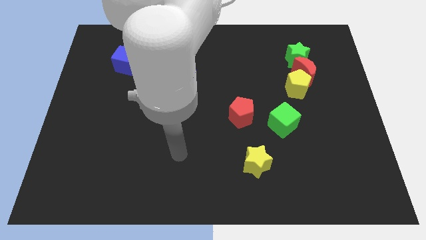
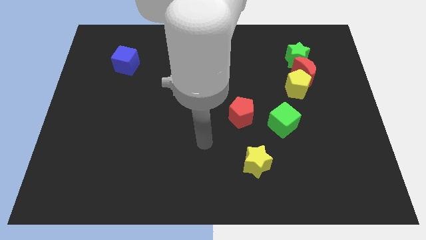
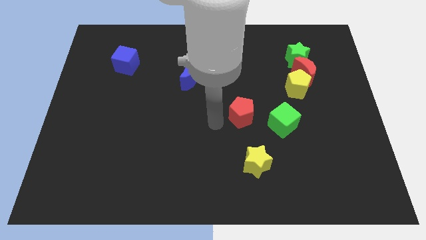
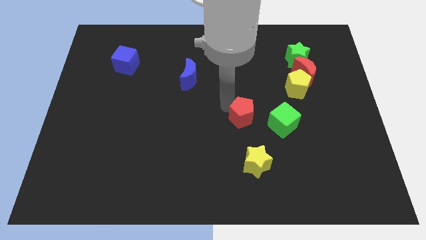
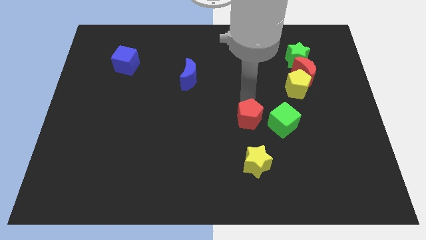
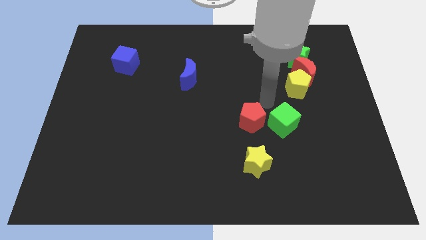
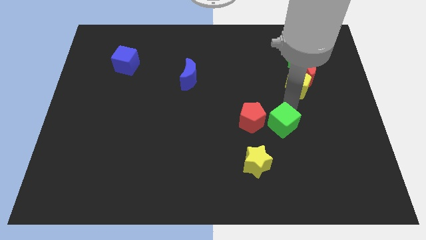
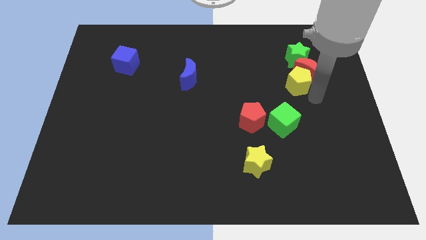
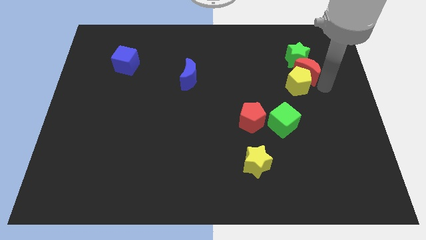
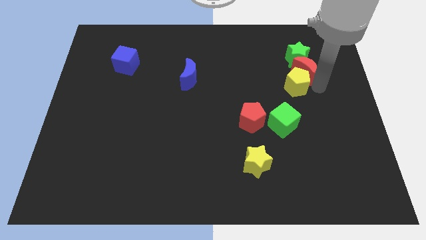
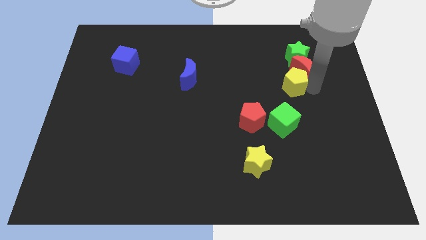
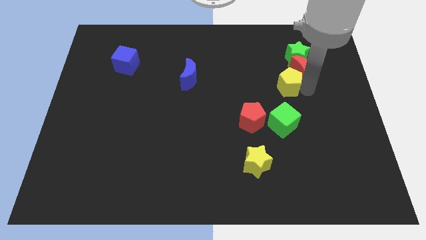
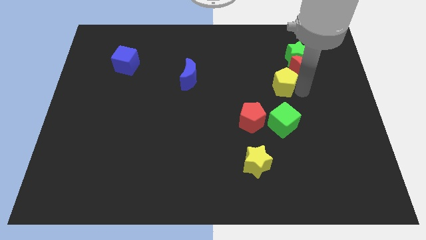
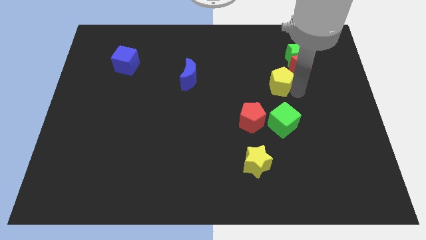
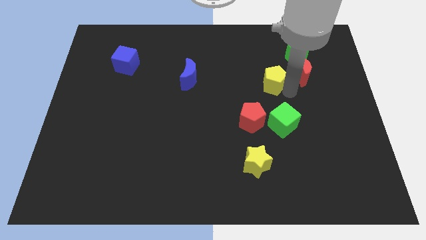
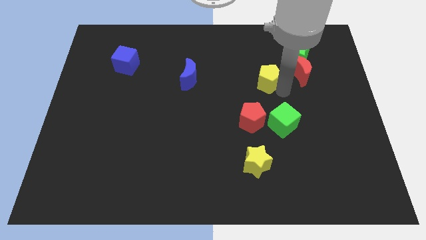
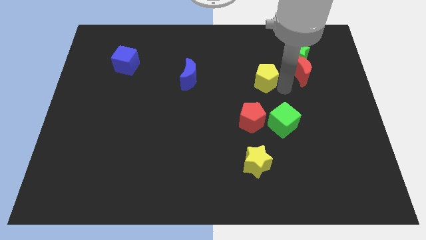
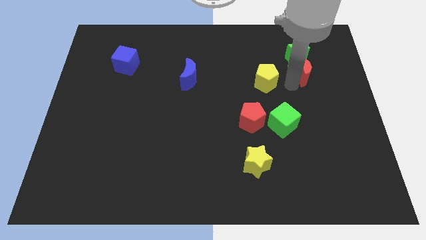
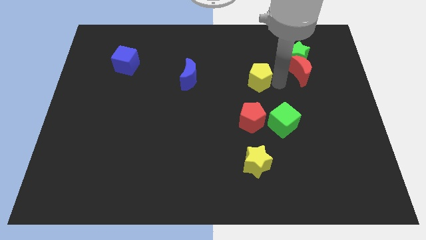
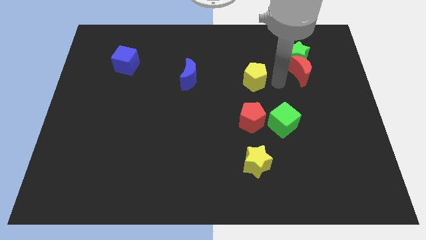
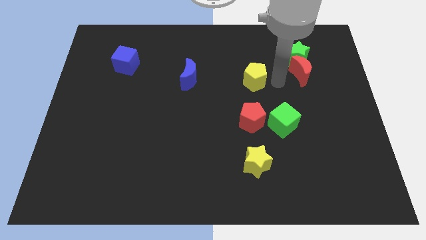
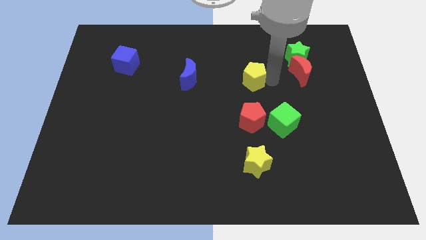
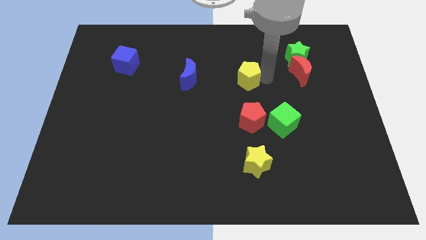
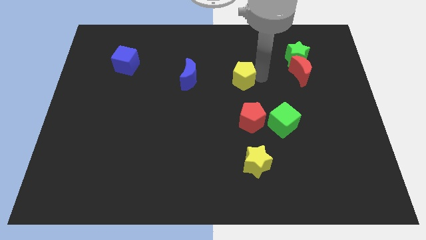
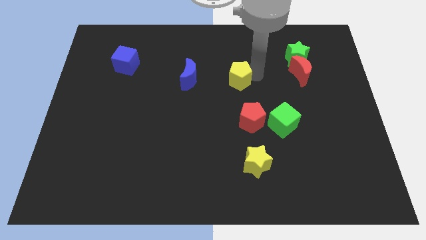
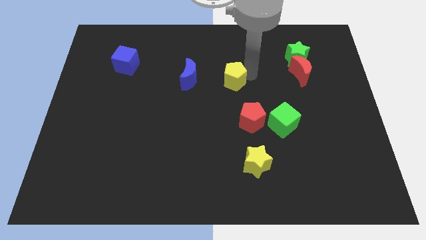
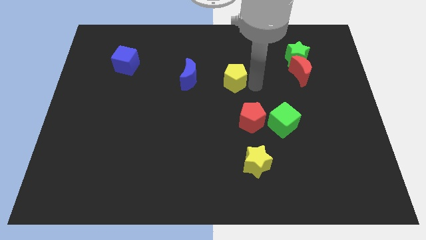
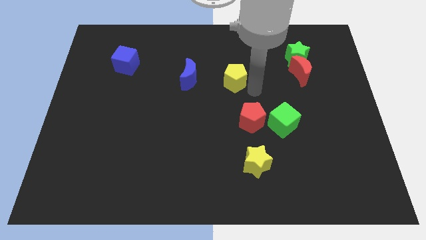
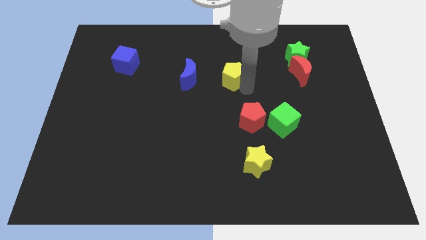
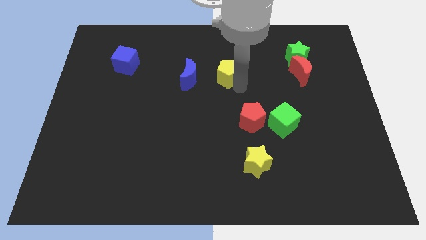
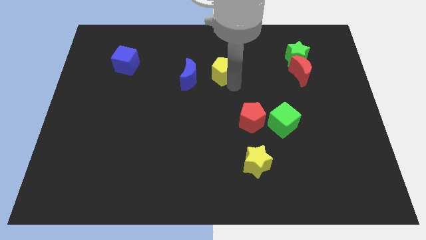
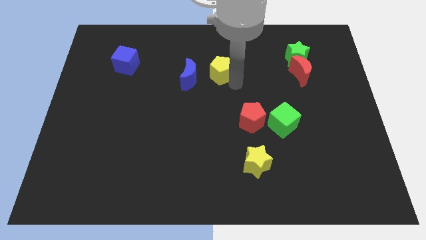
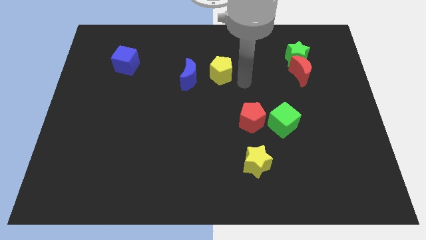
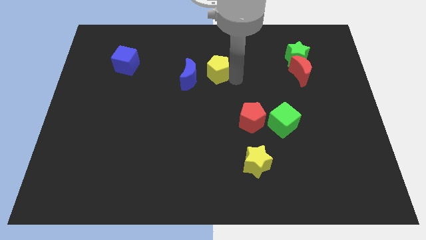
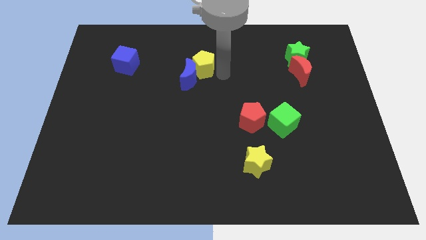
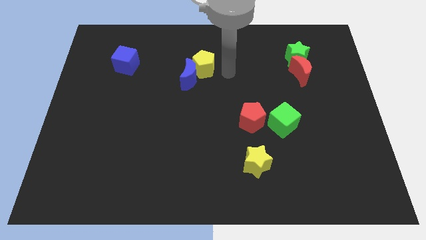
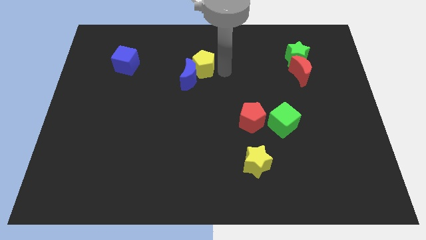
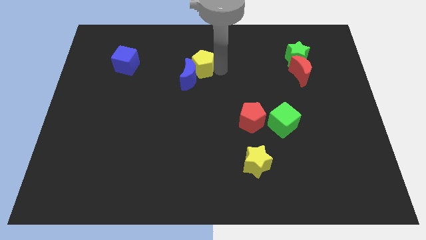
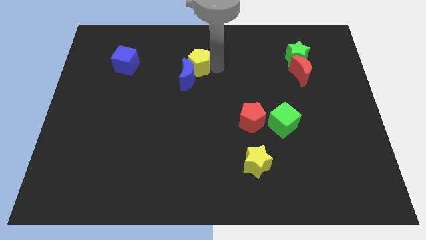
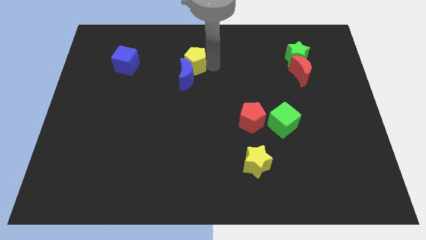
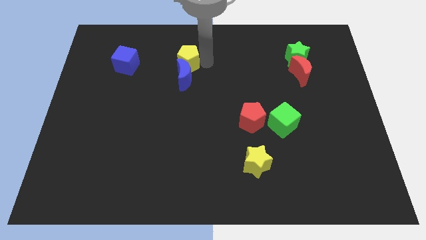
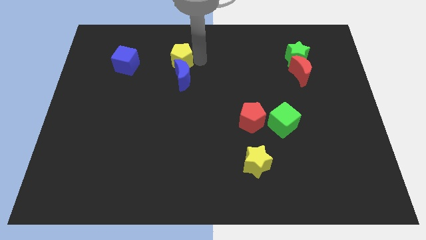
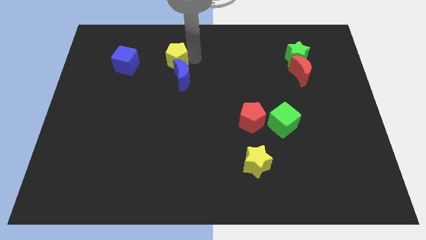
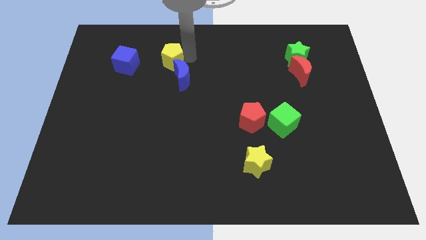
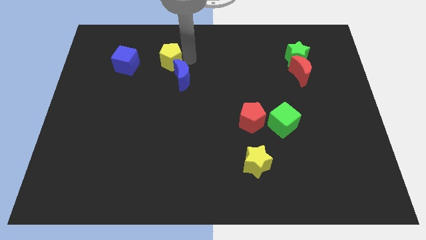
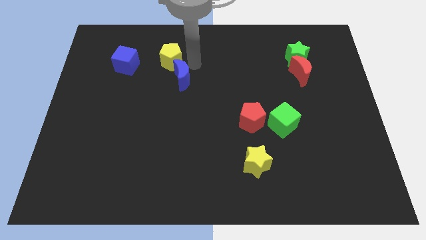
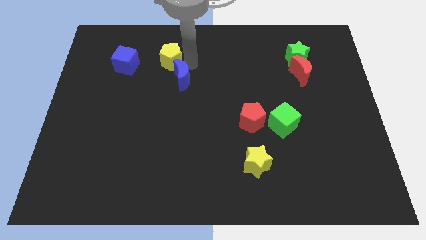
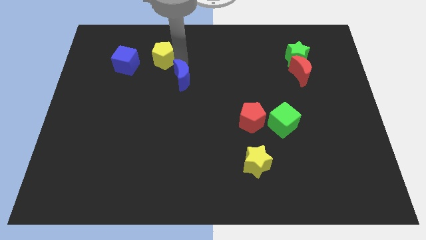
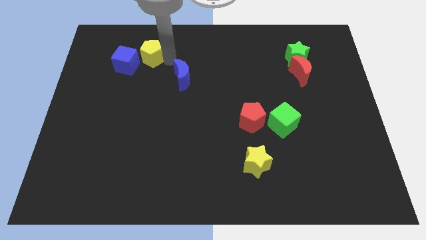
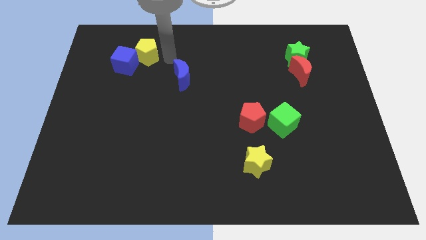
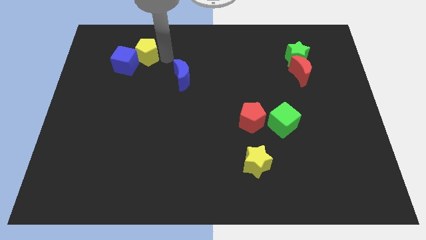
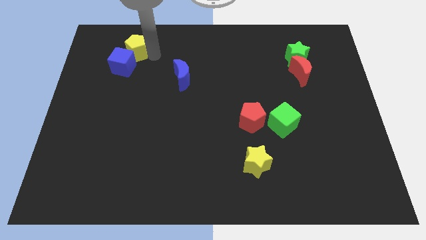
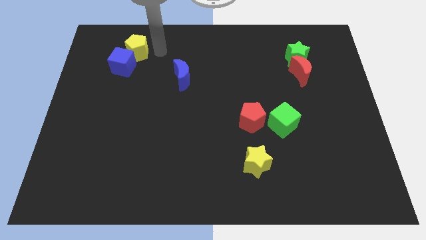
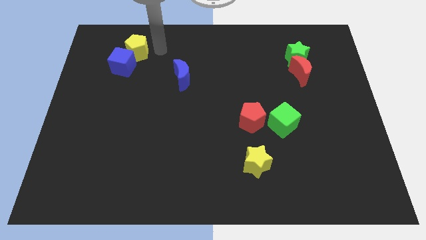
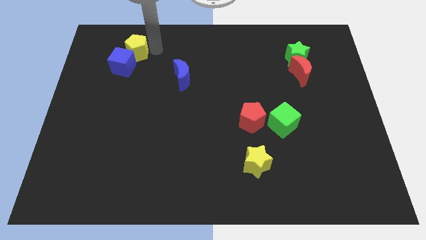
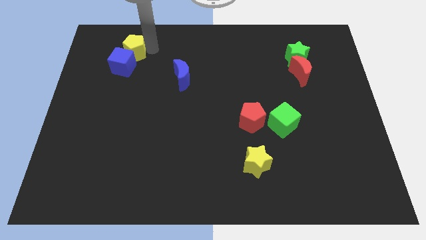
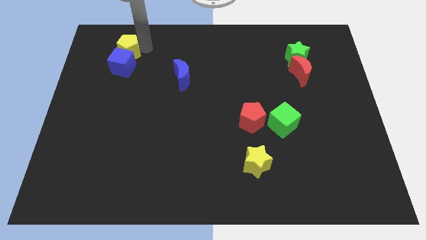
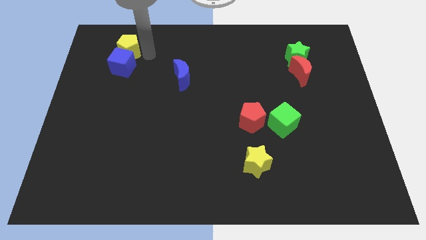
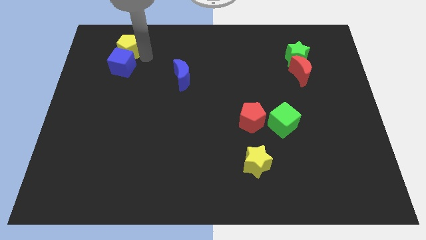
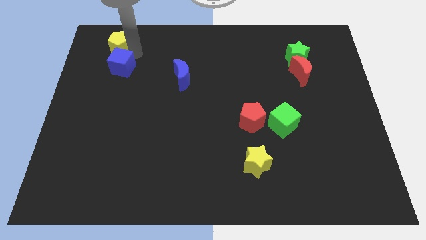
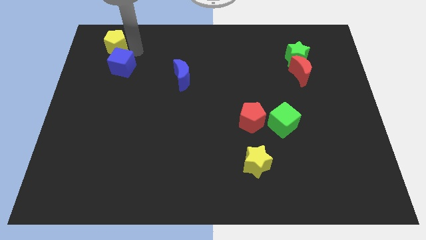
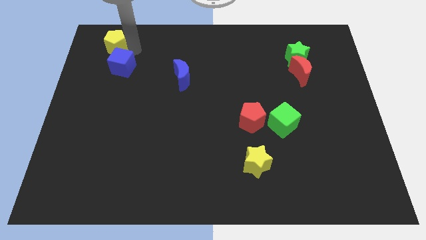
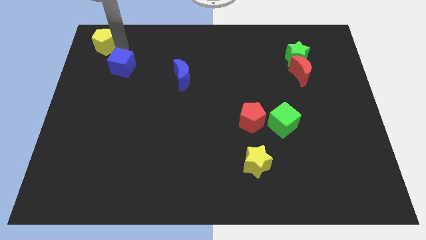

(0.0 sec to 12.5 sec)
push the yellow pentagon to the top left of the board

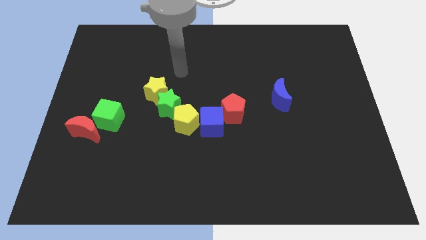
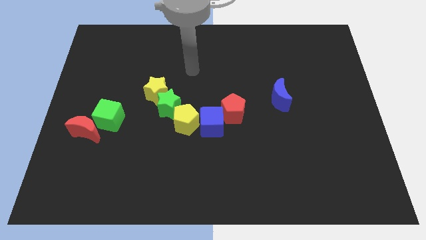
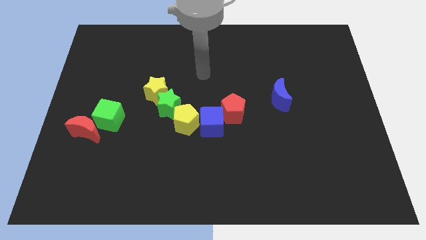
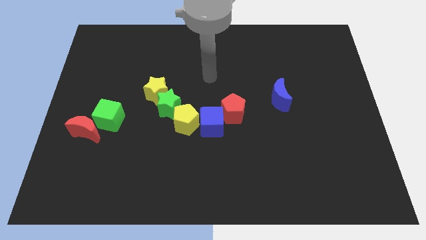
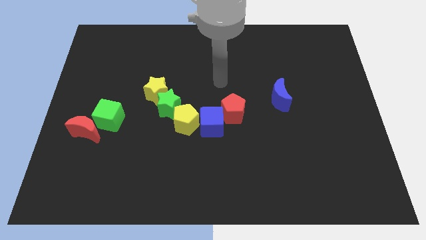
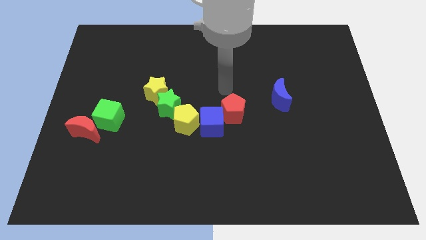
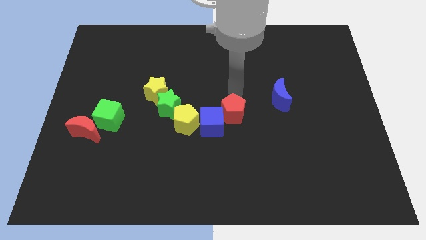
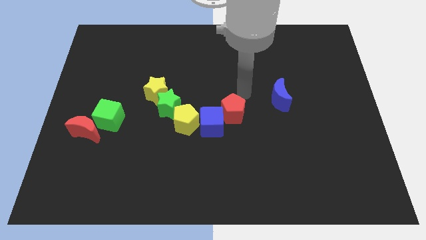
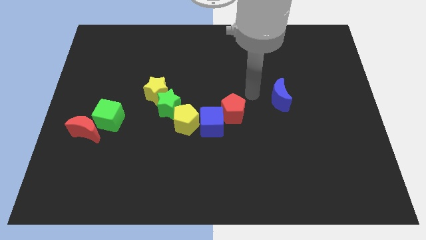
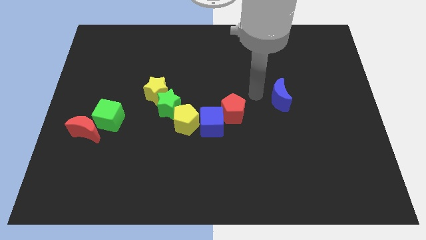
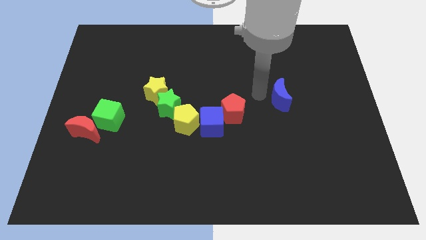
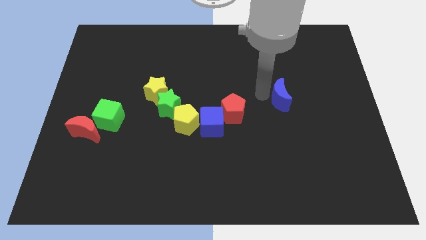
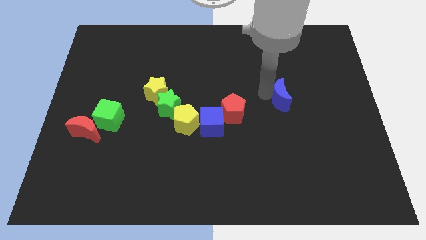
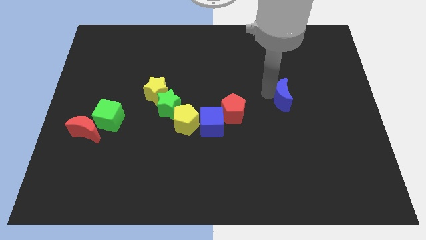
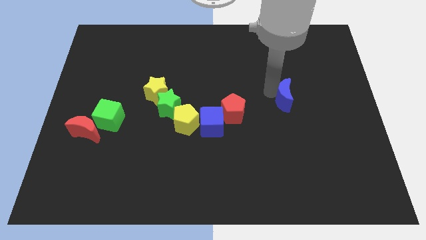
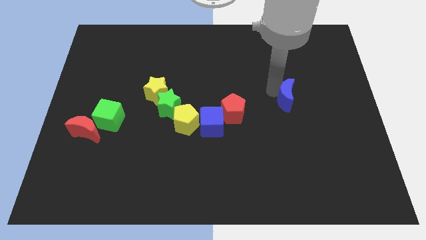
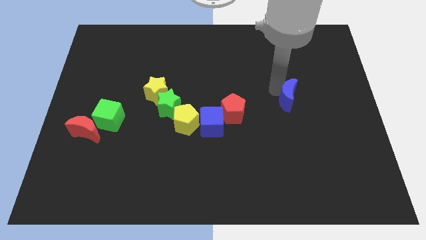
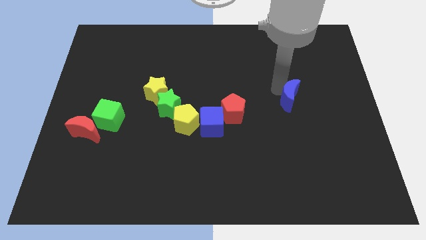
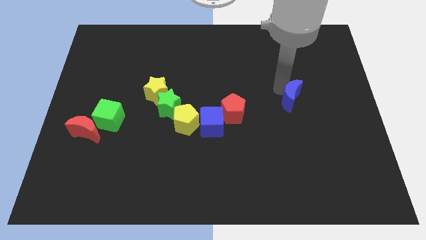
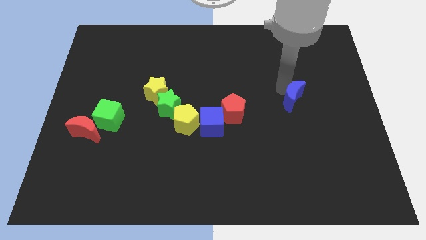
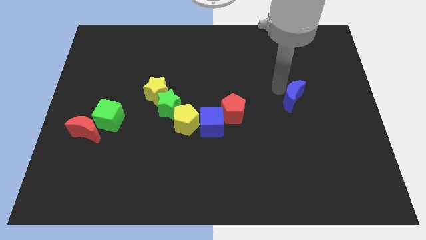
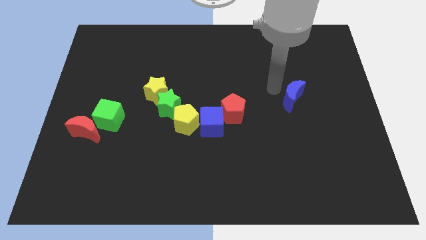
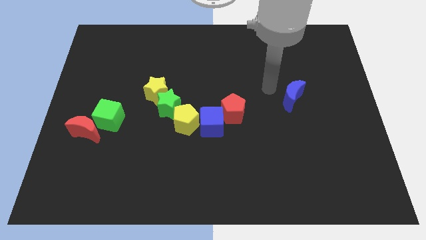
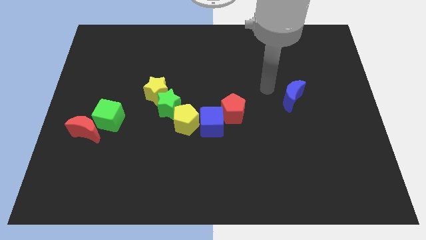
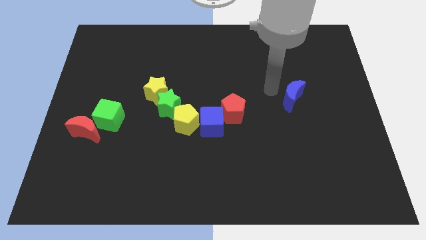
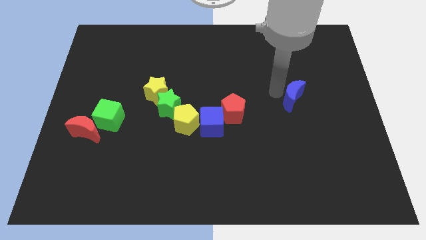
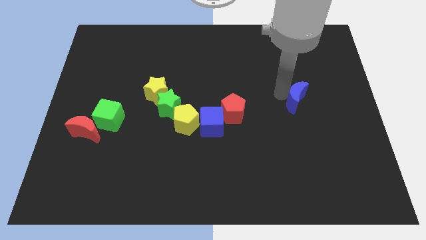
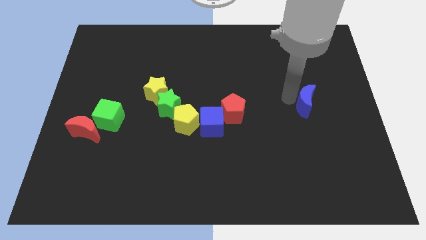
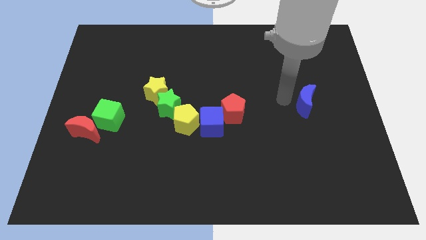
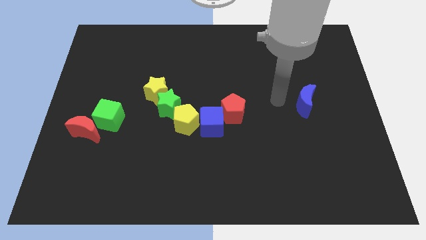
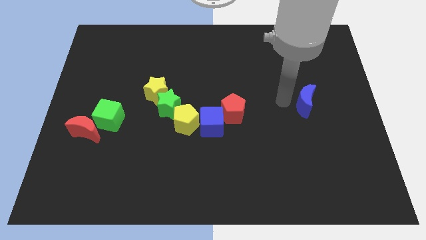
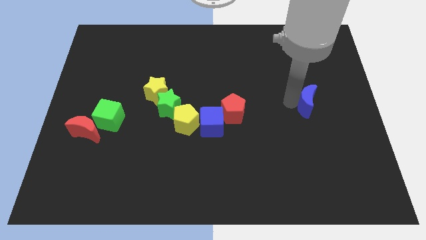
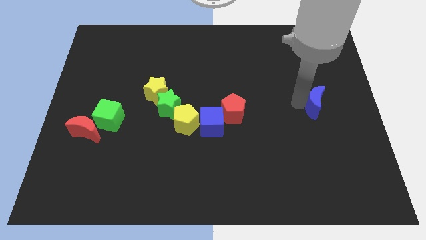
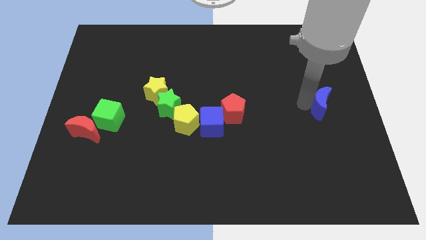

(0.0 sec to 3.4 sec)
put the blue moon to the center right
